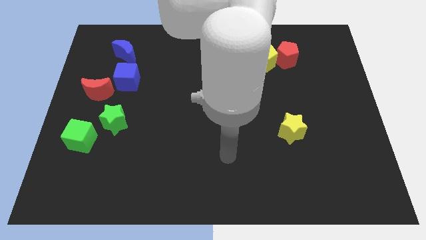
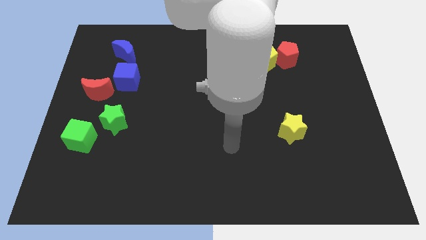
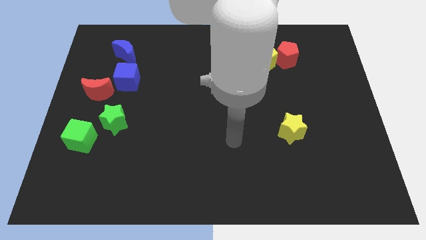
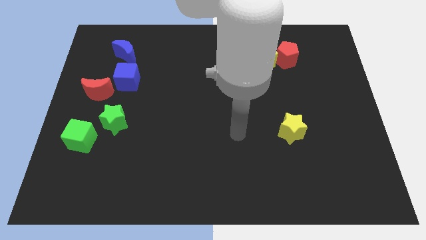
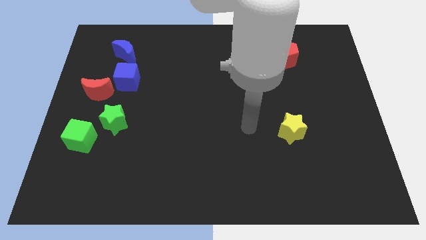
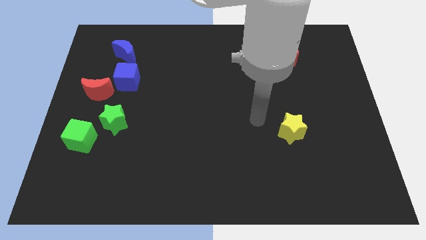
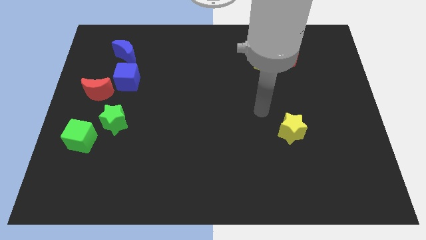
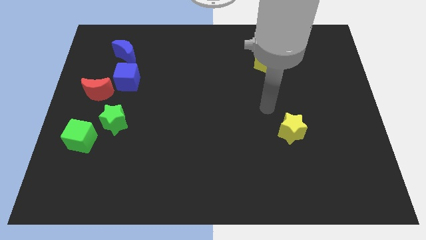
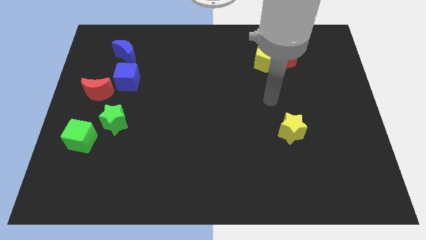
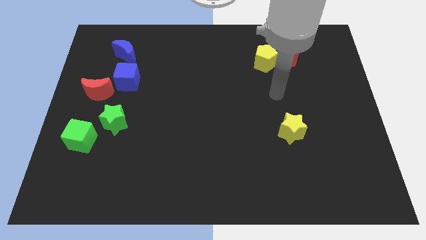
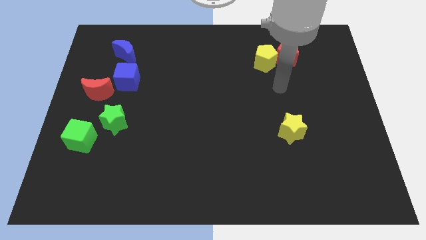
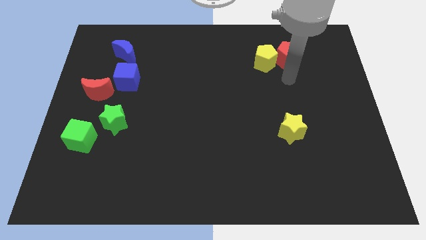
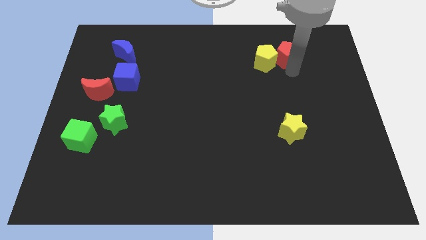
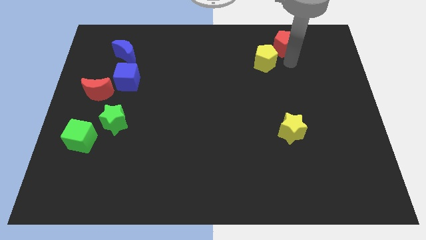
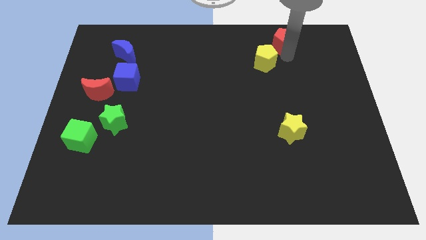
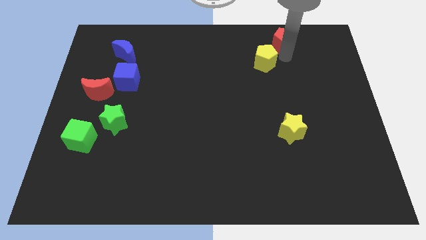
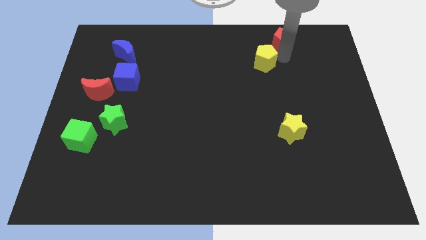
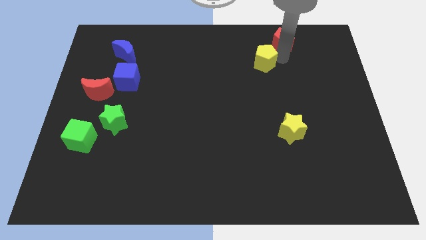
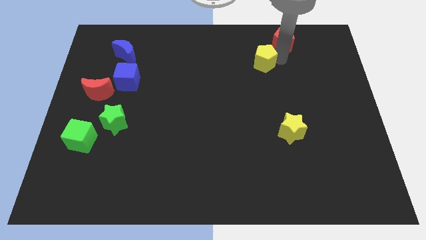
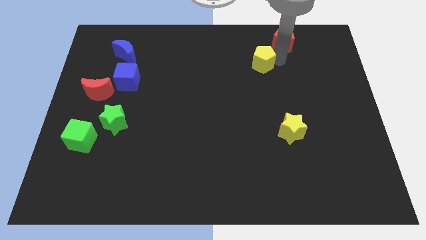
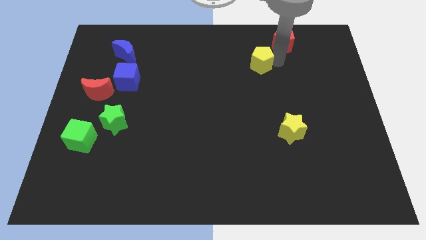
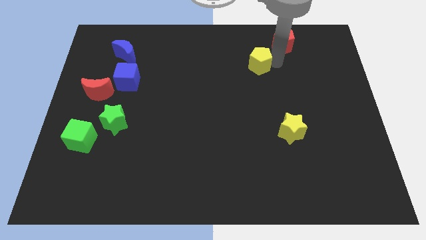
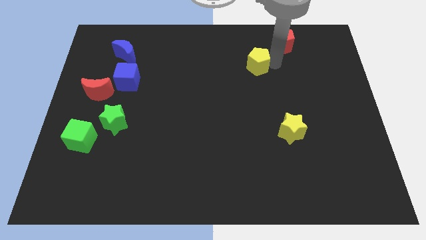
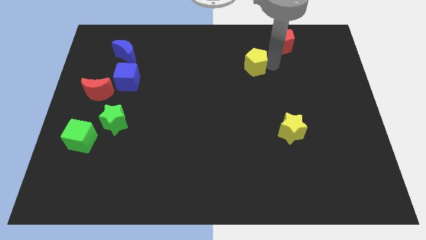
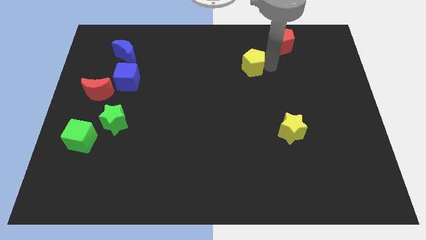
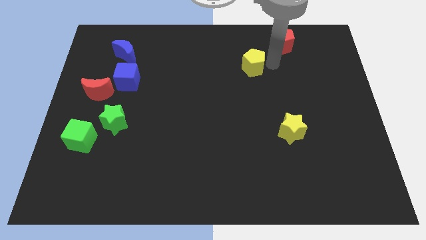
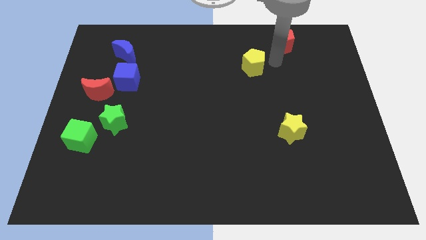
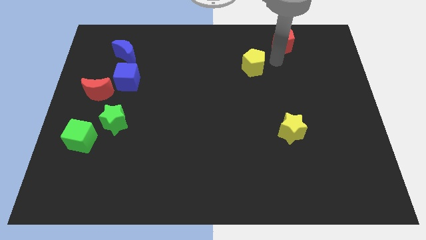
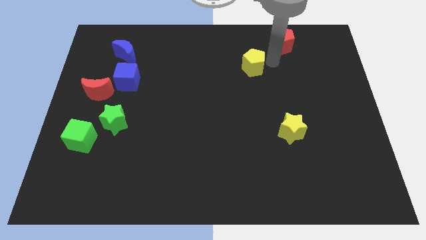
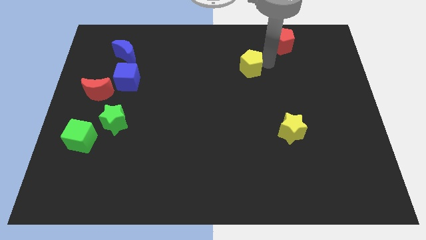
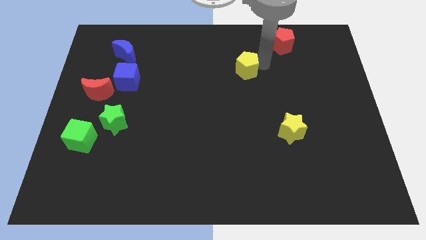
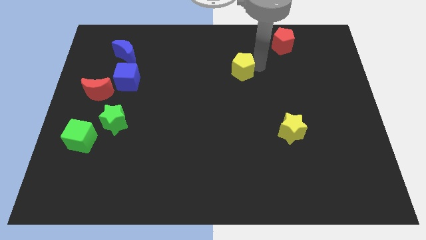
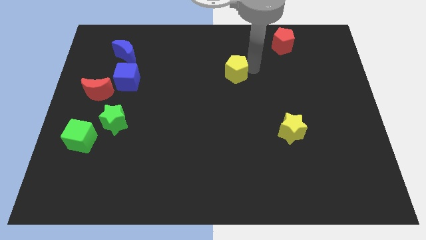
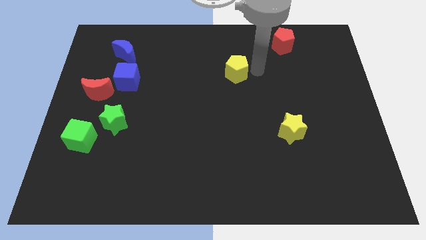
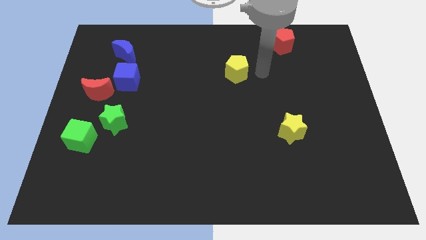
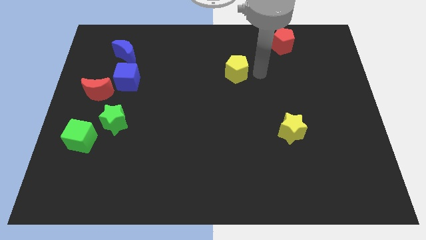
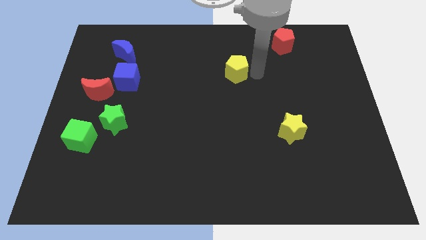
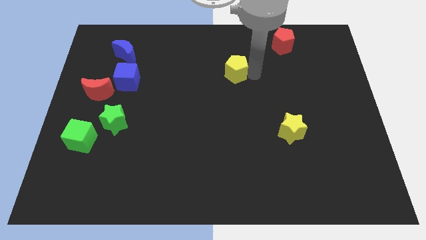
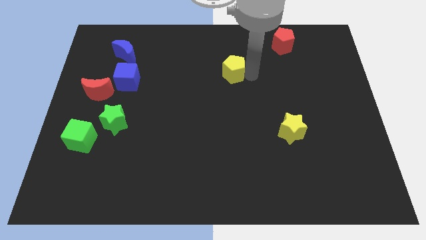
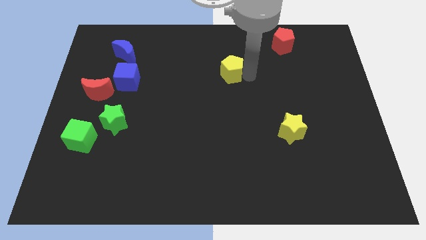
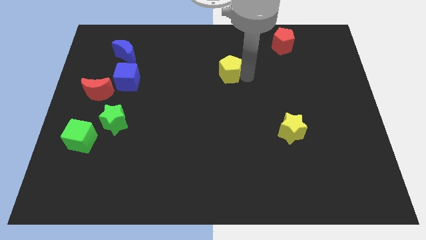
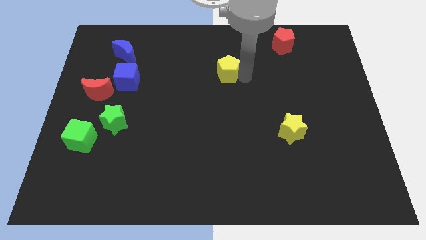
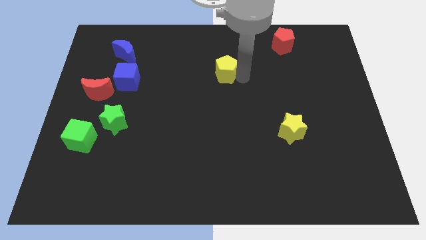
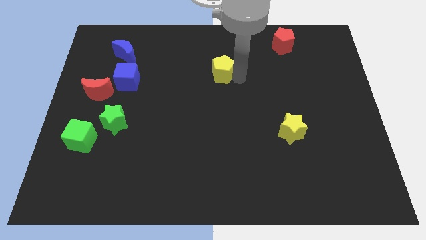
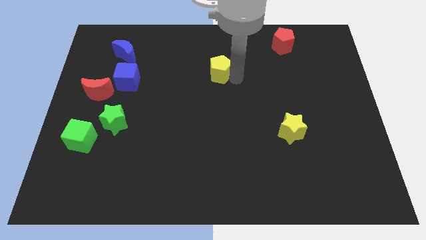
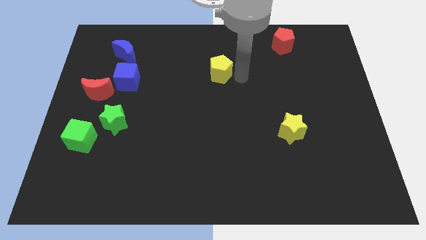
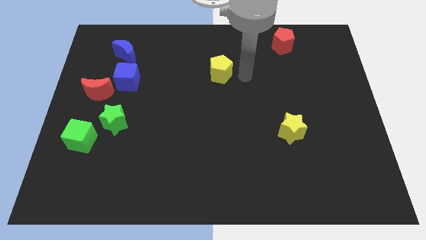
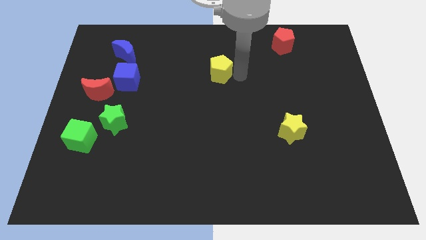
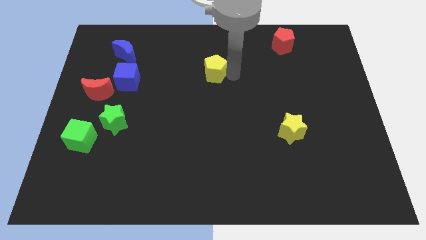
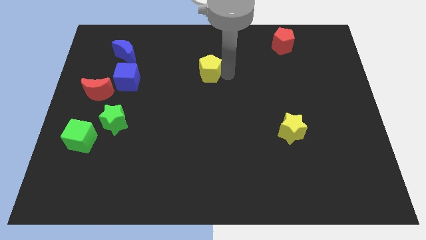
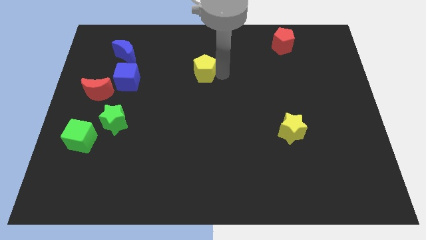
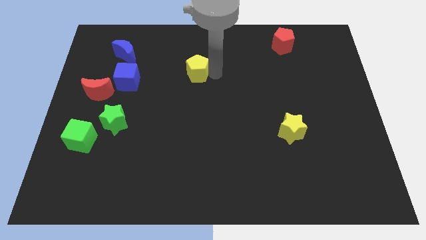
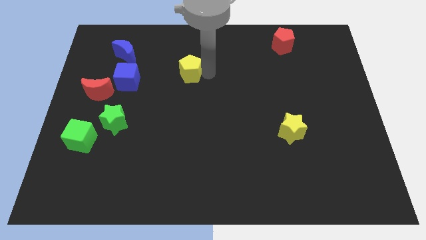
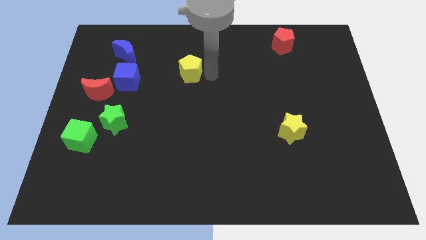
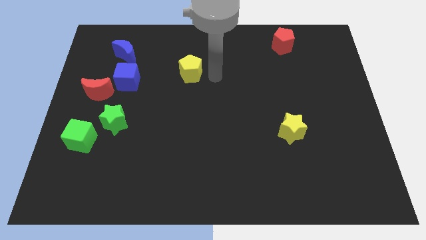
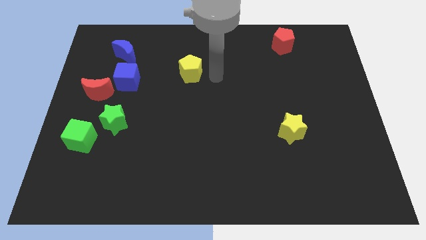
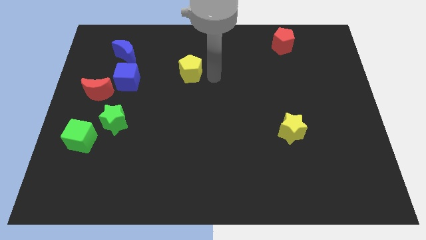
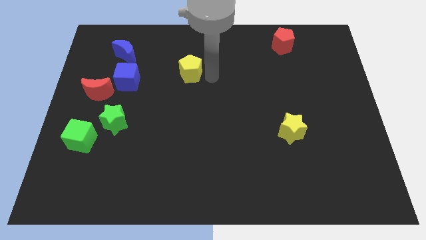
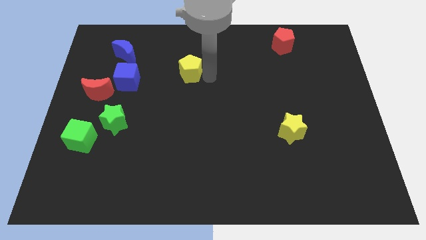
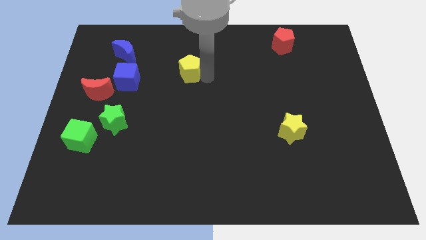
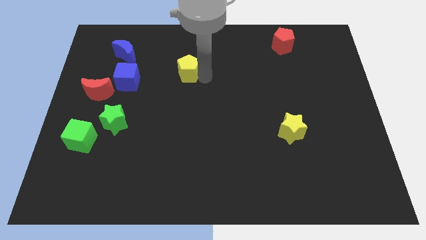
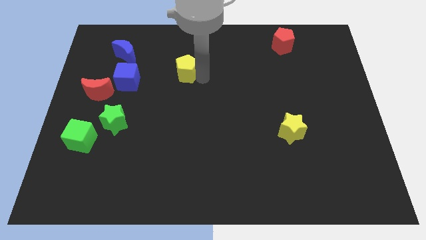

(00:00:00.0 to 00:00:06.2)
push the yellow pentagon left

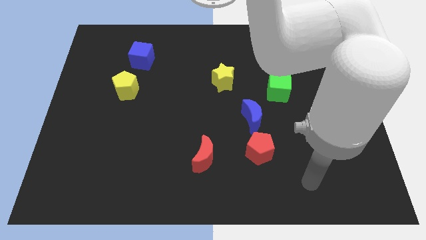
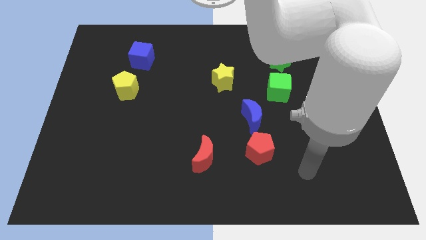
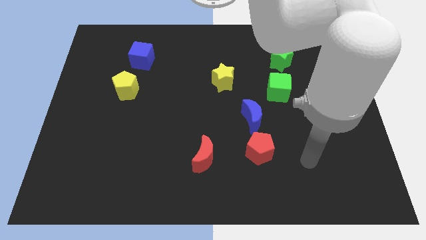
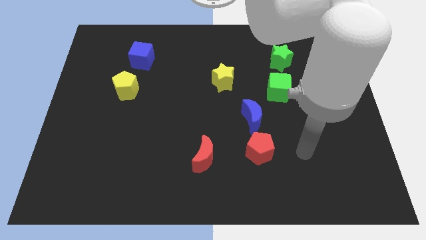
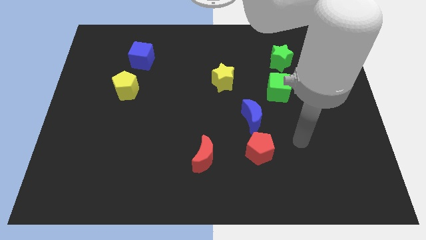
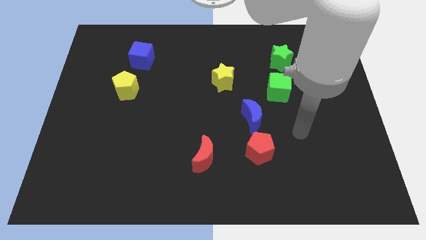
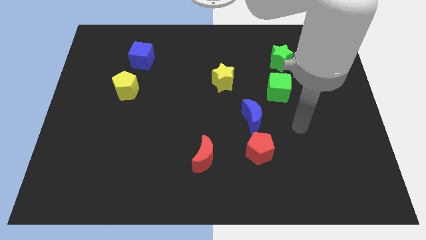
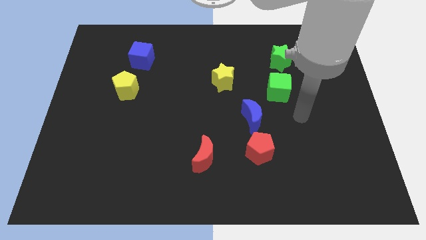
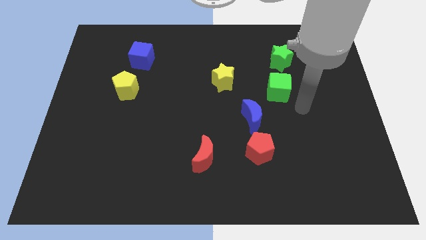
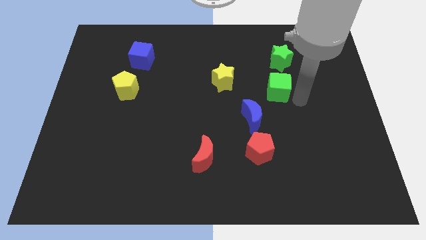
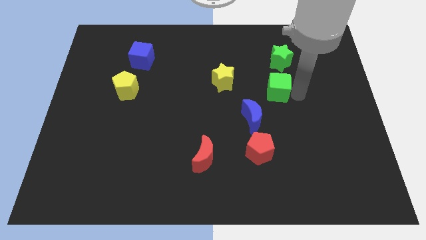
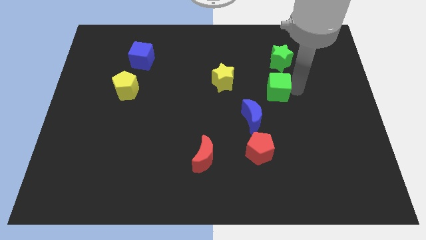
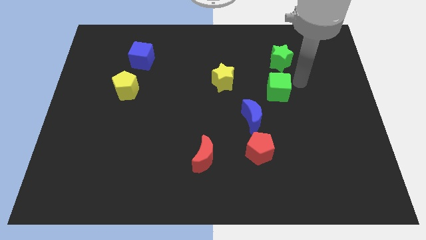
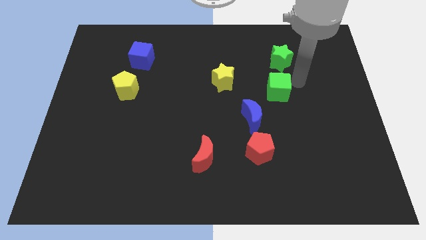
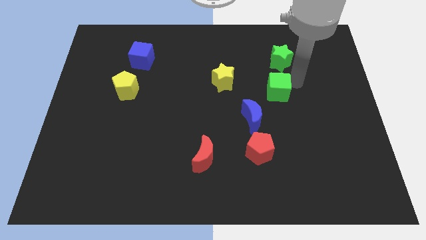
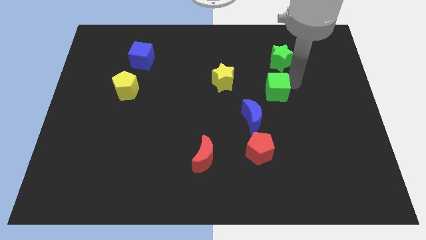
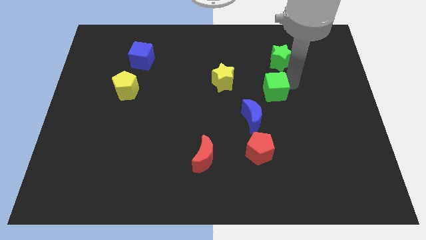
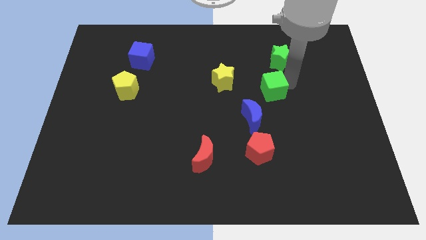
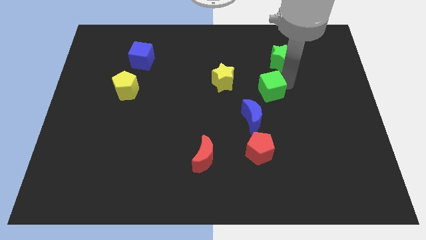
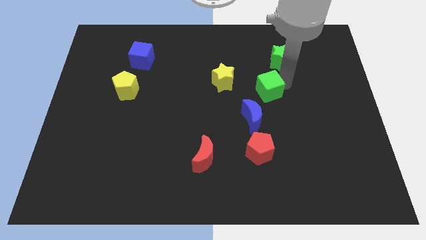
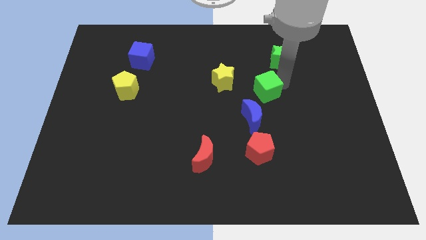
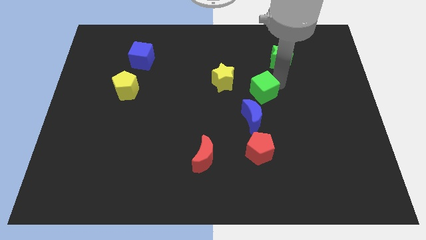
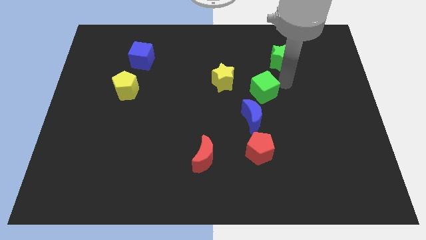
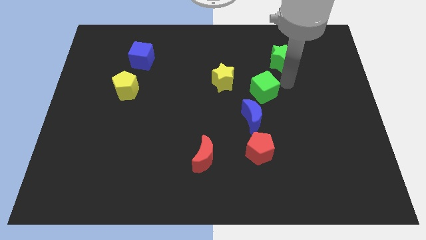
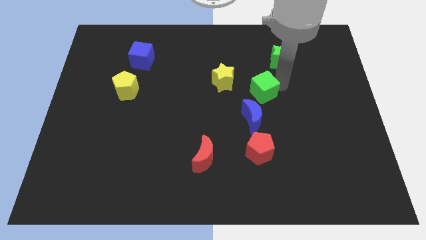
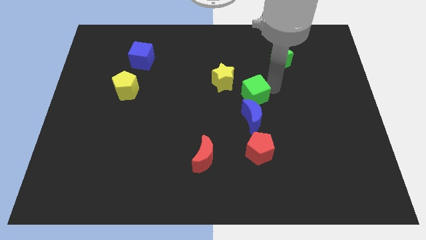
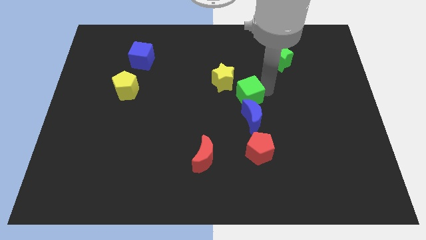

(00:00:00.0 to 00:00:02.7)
slightly move the green cube left
